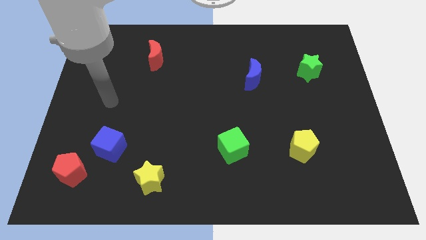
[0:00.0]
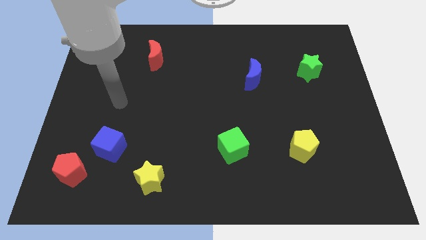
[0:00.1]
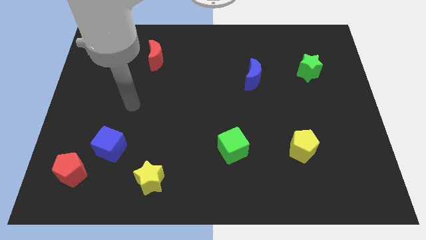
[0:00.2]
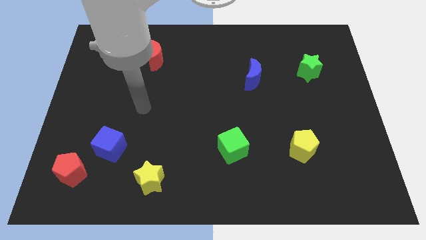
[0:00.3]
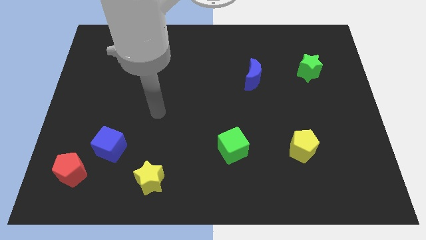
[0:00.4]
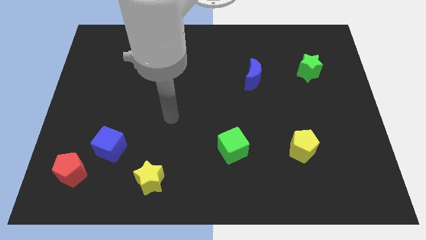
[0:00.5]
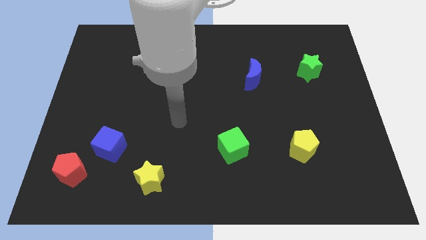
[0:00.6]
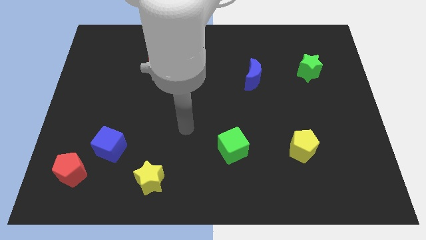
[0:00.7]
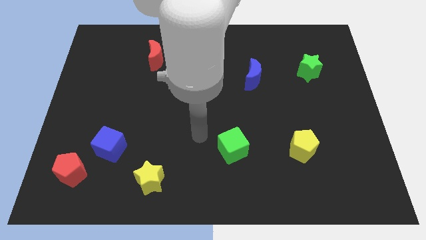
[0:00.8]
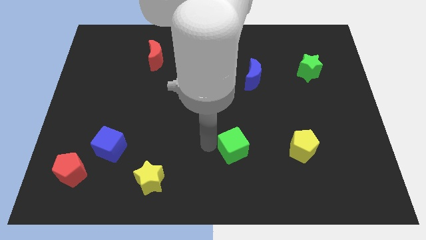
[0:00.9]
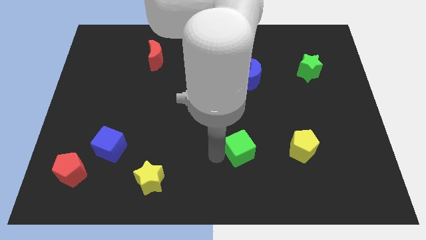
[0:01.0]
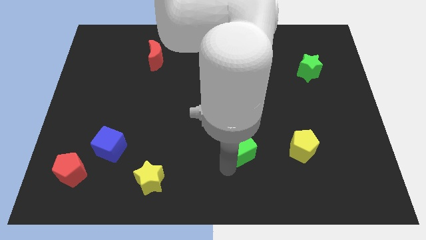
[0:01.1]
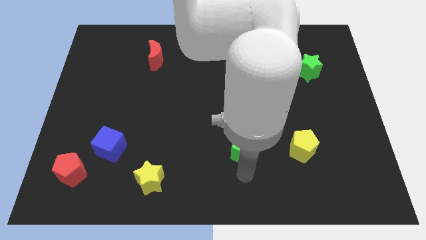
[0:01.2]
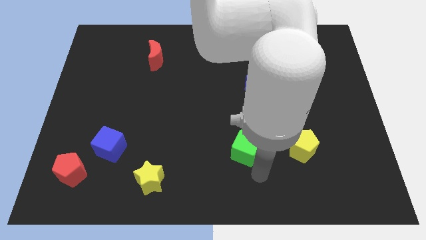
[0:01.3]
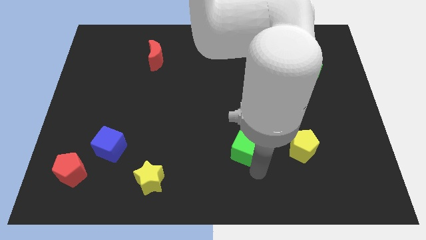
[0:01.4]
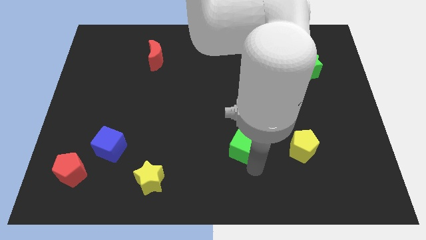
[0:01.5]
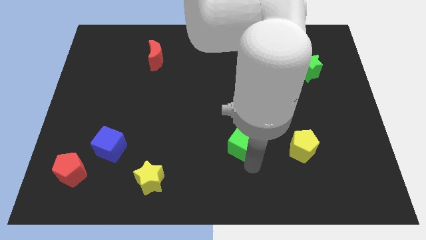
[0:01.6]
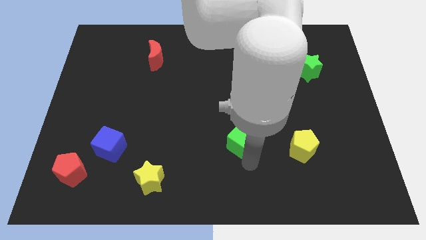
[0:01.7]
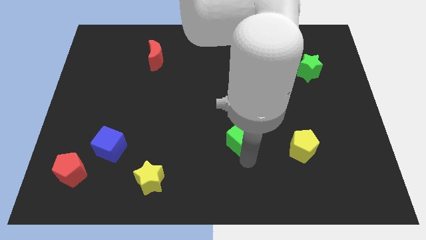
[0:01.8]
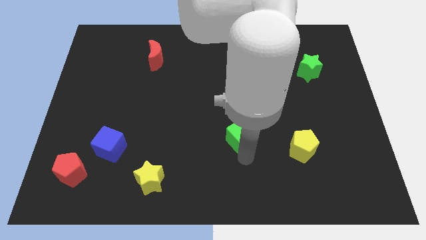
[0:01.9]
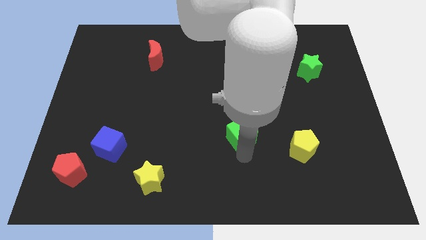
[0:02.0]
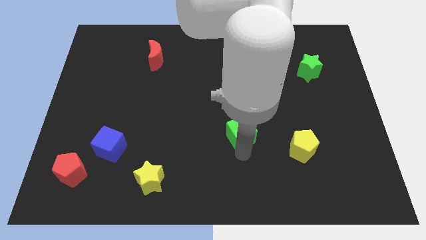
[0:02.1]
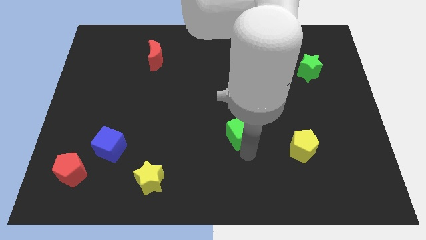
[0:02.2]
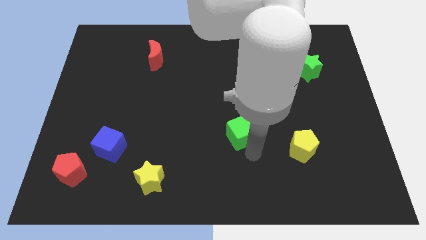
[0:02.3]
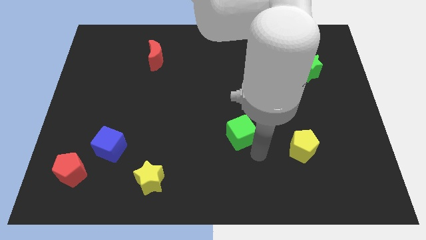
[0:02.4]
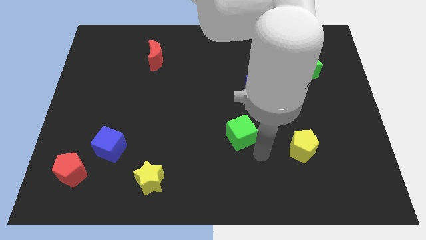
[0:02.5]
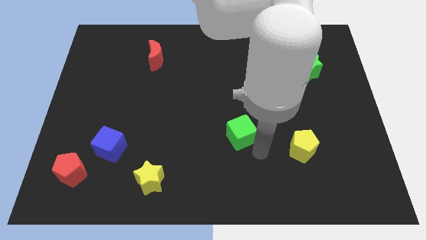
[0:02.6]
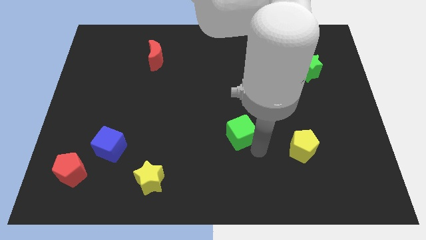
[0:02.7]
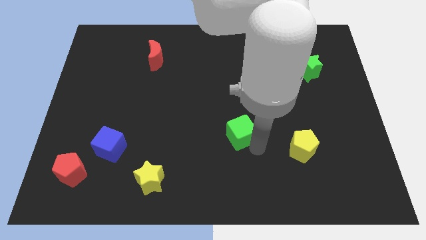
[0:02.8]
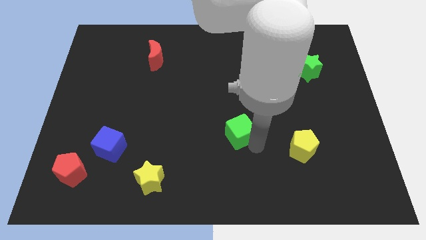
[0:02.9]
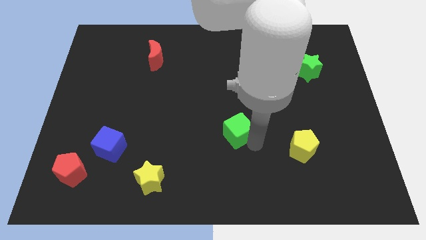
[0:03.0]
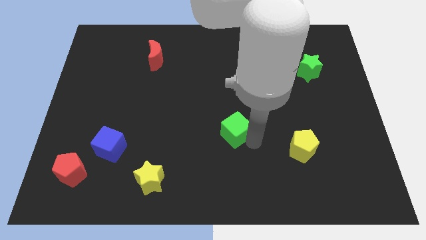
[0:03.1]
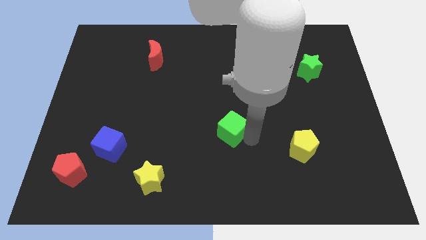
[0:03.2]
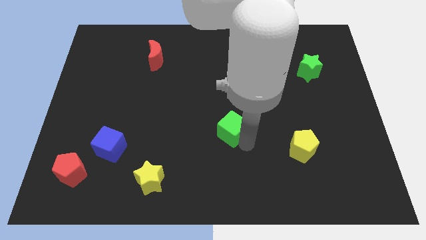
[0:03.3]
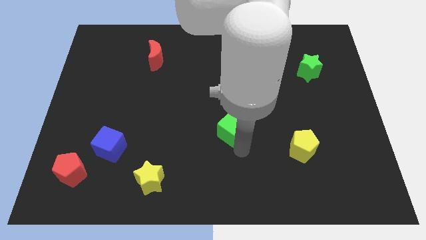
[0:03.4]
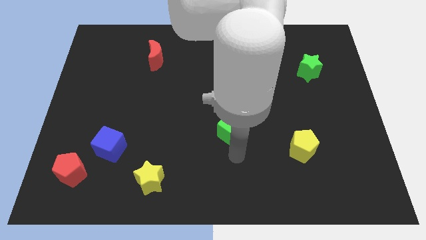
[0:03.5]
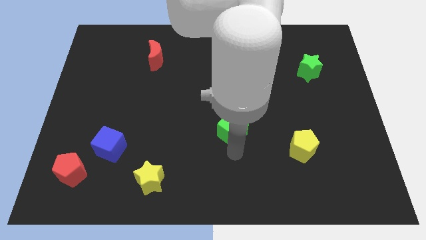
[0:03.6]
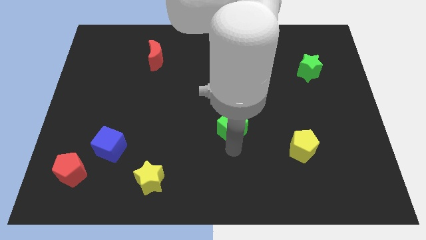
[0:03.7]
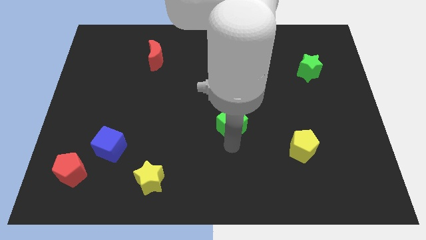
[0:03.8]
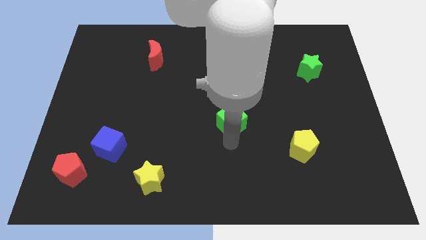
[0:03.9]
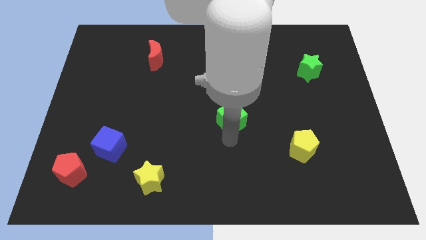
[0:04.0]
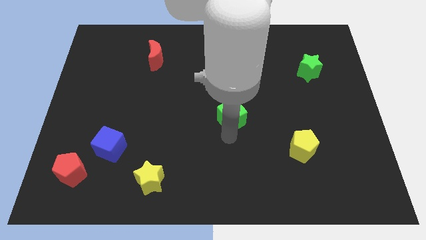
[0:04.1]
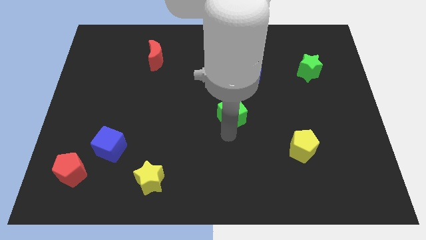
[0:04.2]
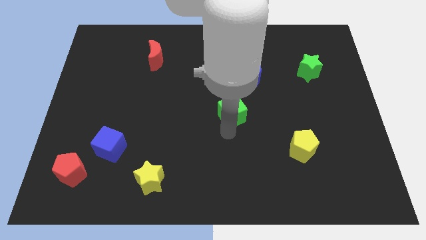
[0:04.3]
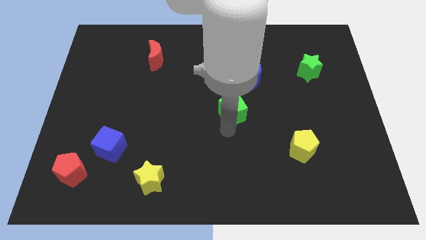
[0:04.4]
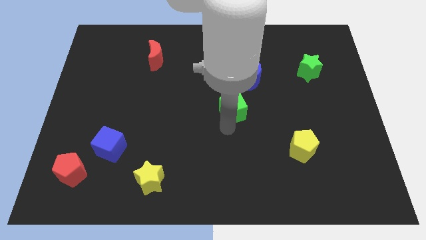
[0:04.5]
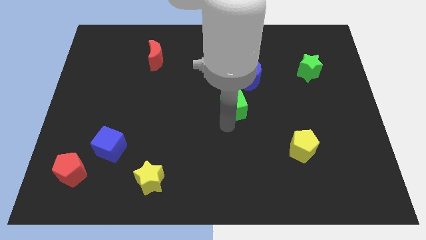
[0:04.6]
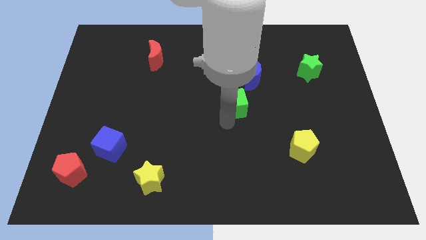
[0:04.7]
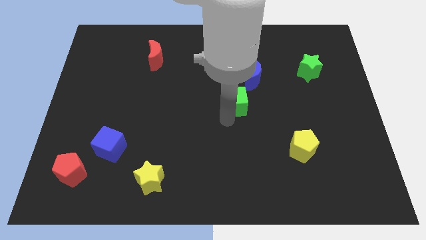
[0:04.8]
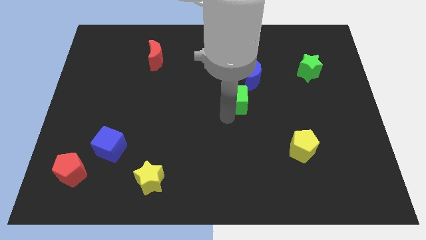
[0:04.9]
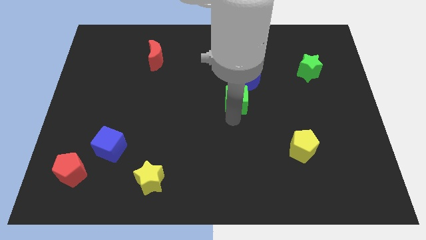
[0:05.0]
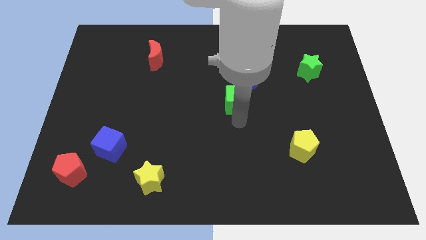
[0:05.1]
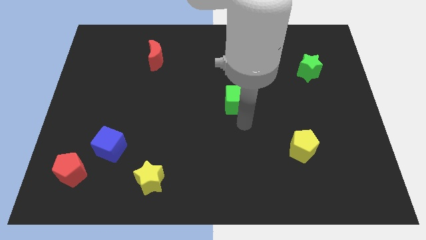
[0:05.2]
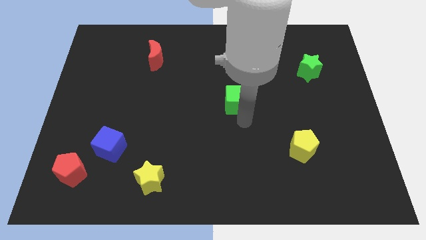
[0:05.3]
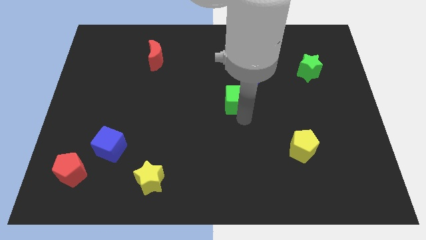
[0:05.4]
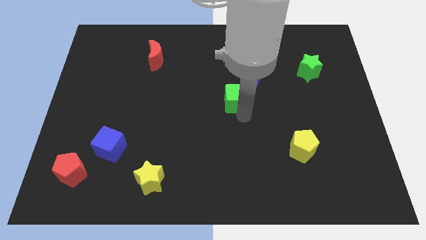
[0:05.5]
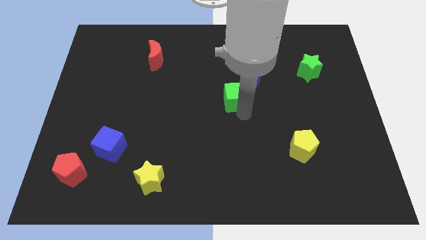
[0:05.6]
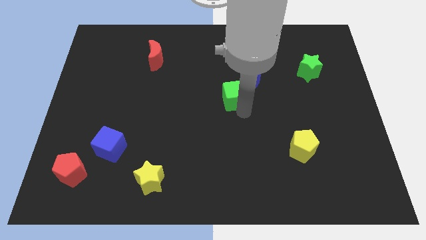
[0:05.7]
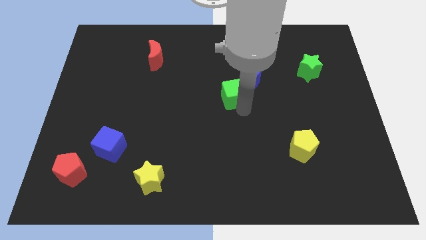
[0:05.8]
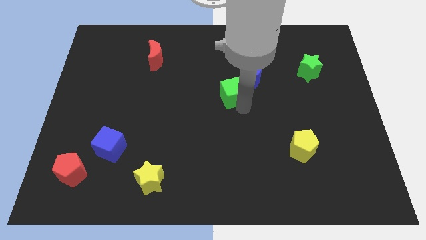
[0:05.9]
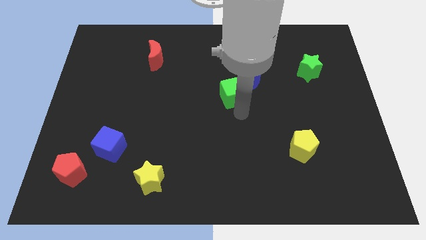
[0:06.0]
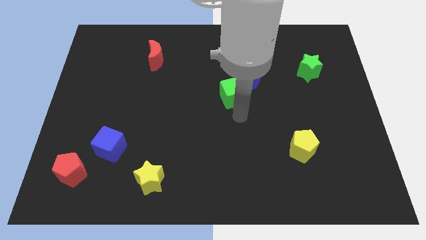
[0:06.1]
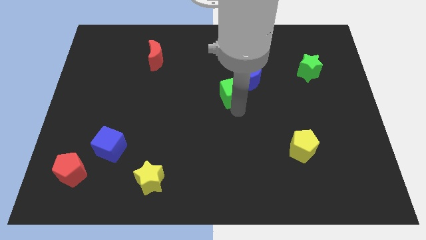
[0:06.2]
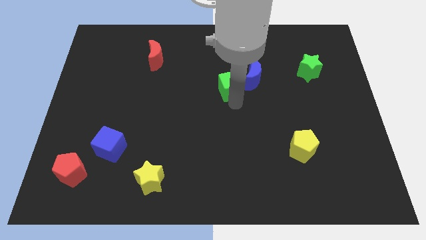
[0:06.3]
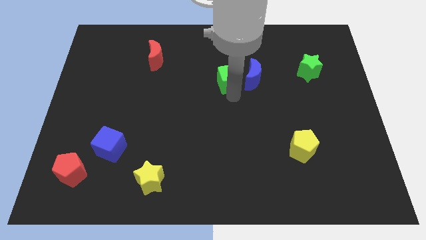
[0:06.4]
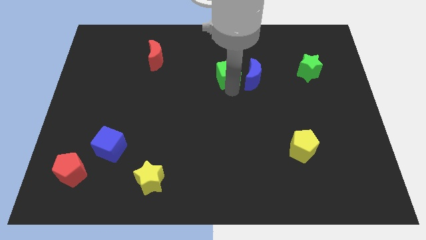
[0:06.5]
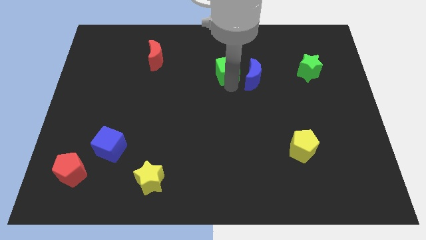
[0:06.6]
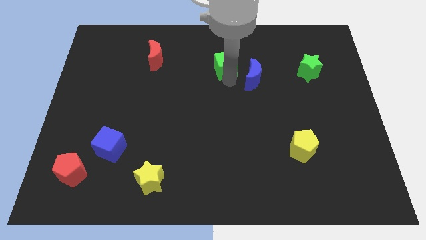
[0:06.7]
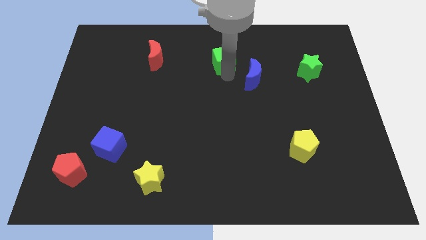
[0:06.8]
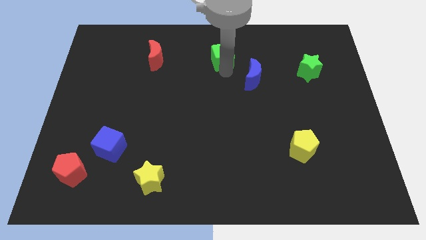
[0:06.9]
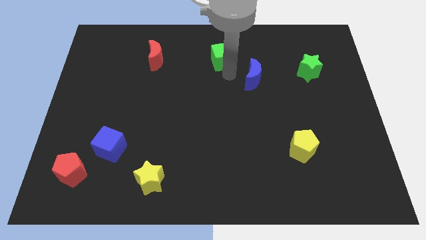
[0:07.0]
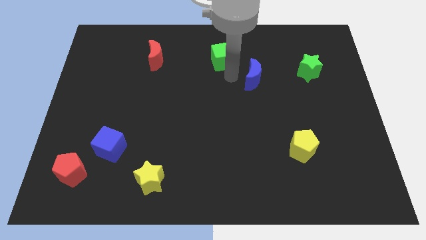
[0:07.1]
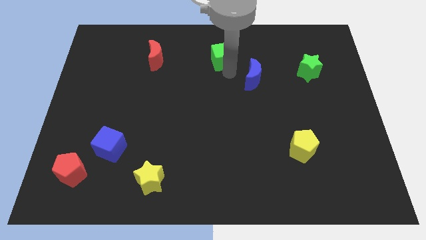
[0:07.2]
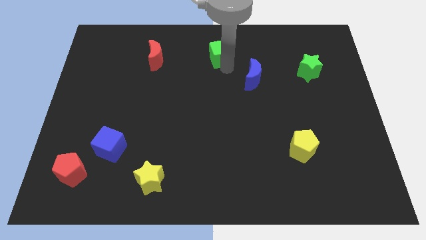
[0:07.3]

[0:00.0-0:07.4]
put the green cube to the top side

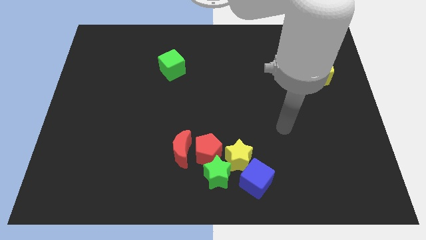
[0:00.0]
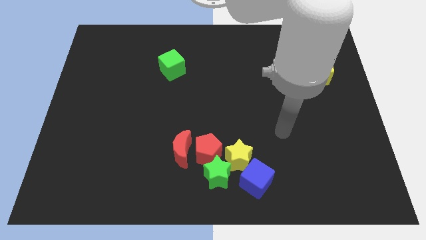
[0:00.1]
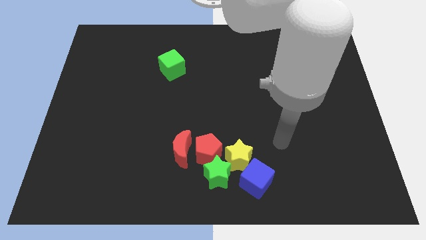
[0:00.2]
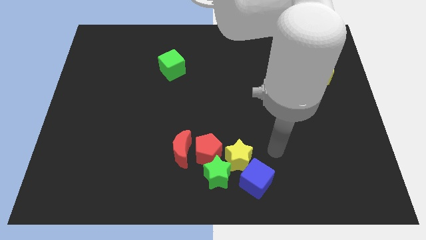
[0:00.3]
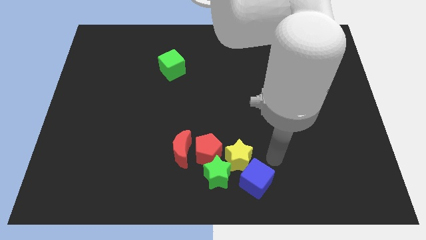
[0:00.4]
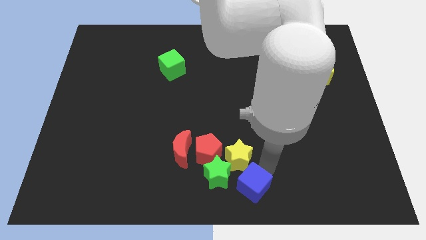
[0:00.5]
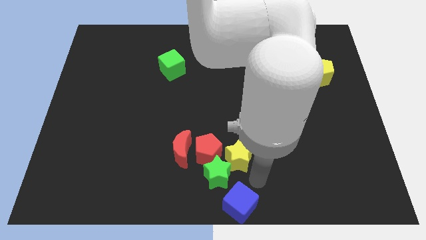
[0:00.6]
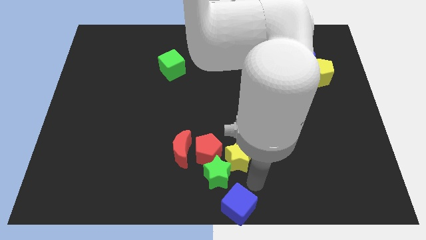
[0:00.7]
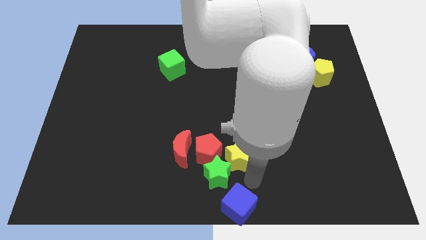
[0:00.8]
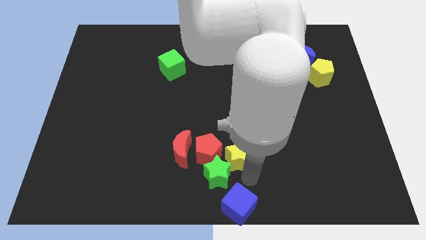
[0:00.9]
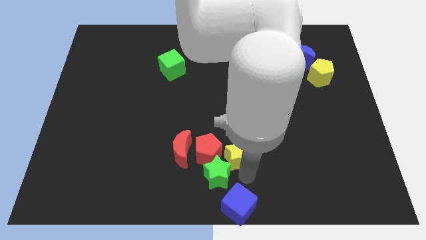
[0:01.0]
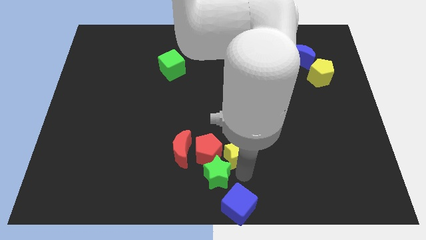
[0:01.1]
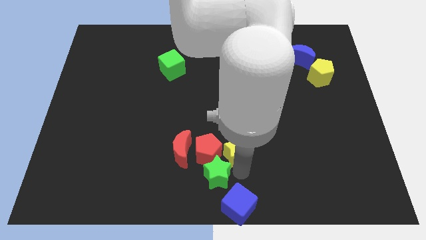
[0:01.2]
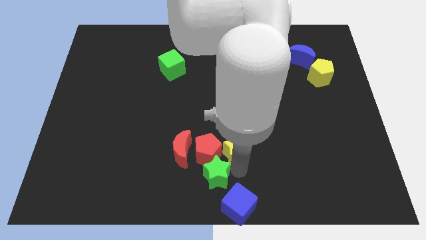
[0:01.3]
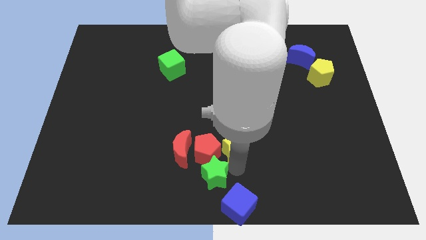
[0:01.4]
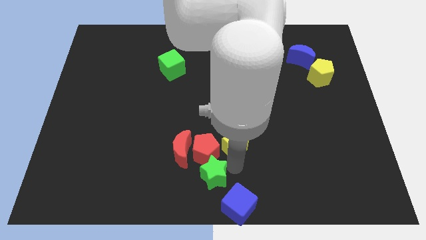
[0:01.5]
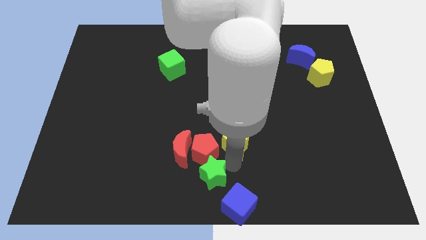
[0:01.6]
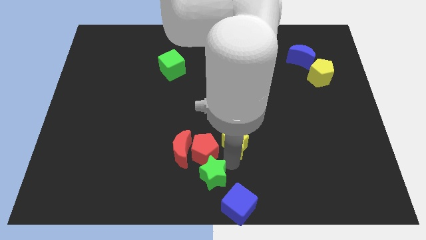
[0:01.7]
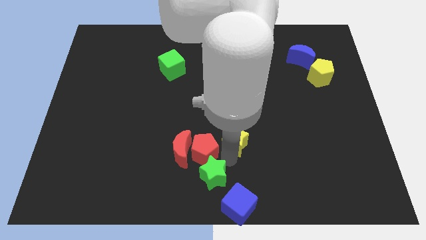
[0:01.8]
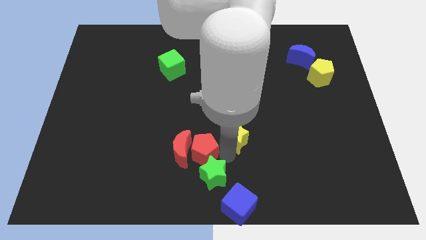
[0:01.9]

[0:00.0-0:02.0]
push the yellow star to the middle of the board
